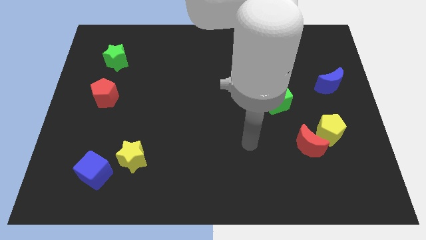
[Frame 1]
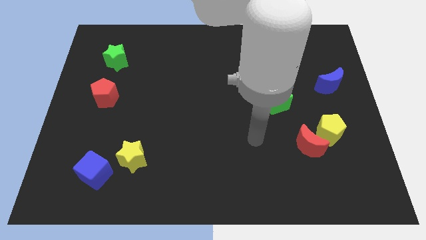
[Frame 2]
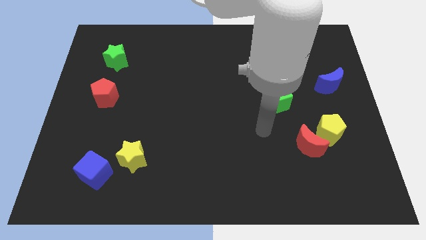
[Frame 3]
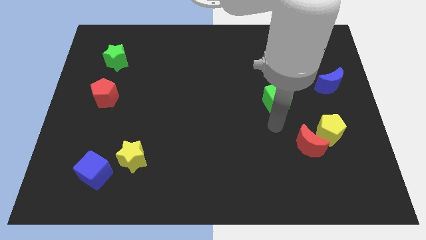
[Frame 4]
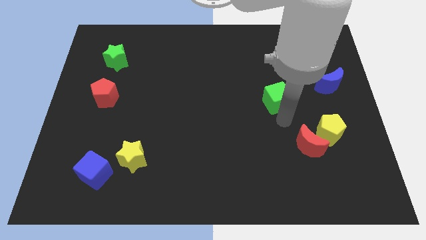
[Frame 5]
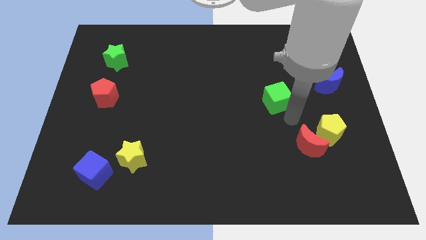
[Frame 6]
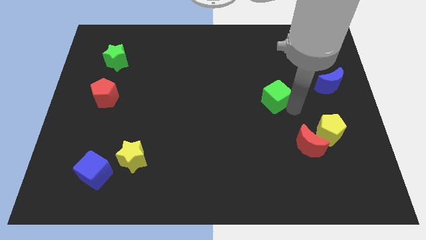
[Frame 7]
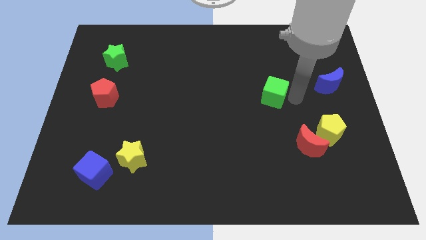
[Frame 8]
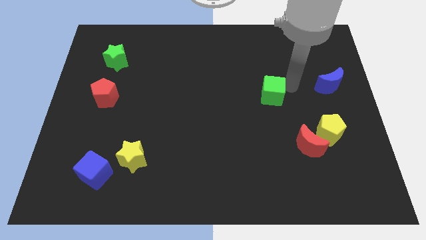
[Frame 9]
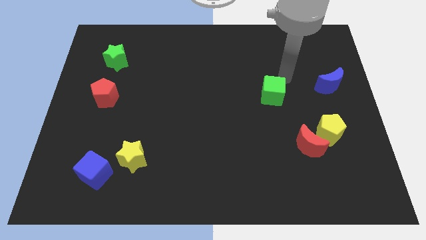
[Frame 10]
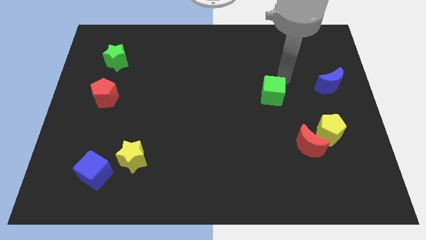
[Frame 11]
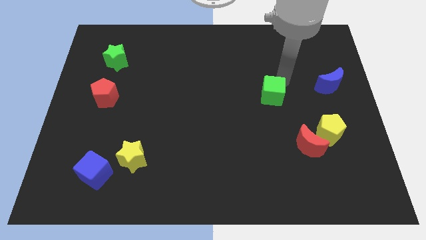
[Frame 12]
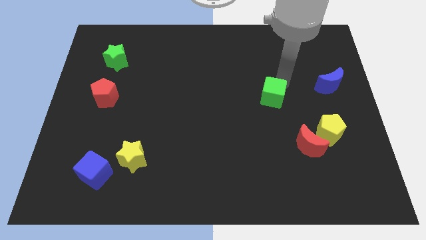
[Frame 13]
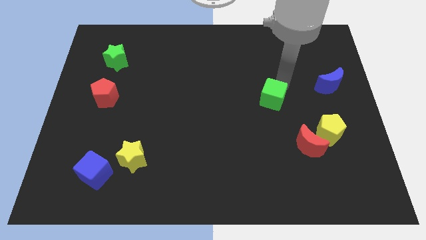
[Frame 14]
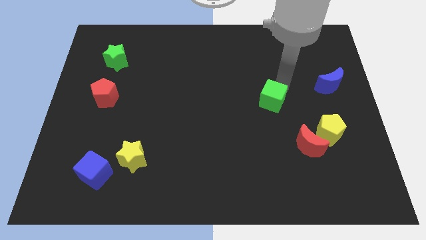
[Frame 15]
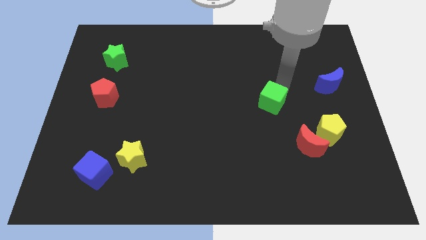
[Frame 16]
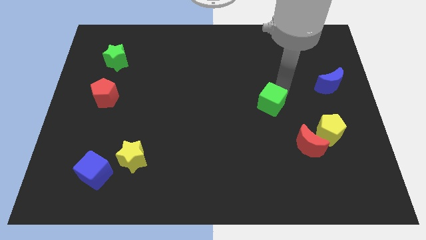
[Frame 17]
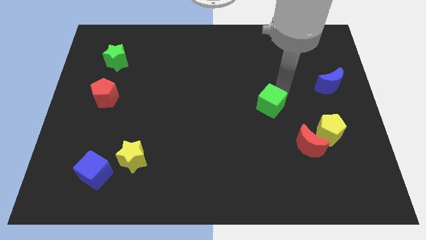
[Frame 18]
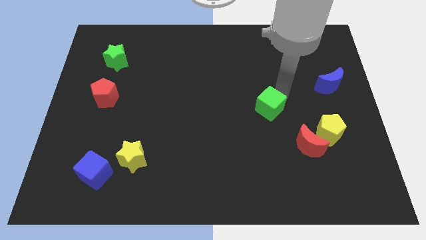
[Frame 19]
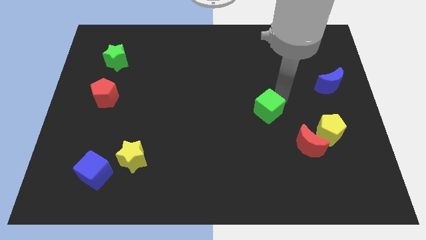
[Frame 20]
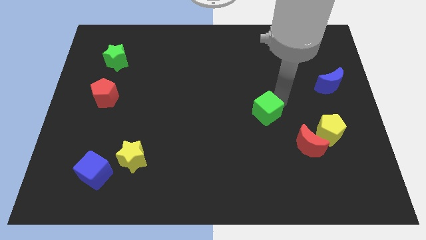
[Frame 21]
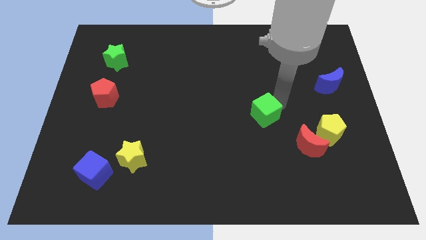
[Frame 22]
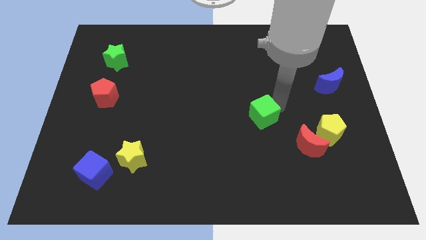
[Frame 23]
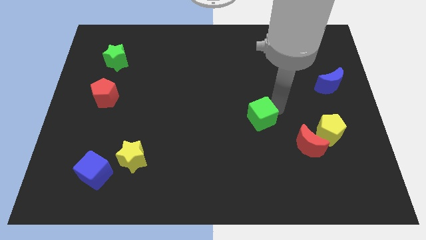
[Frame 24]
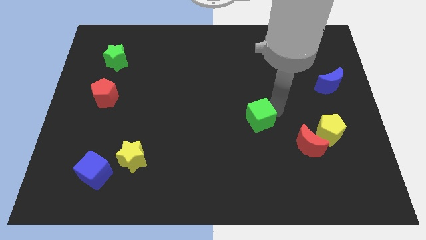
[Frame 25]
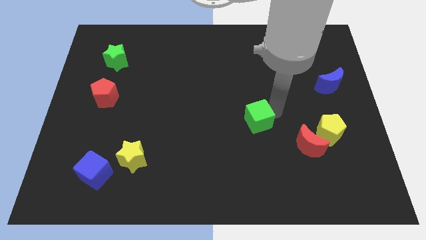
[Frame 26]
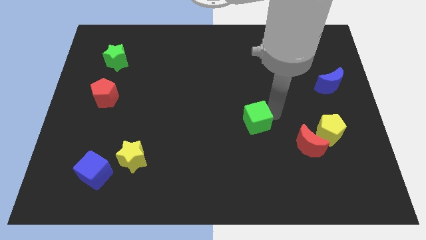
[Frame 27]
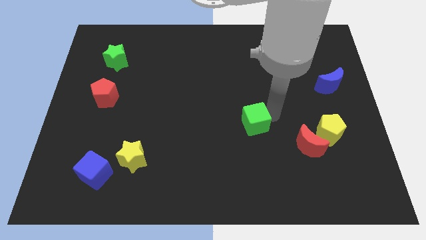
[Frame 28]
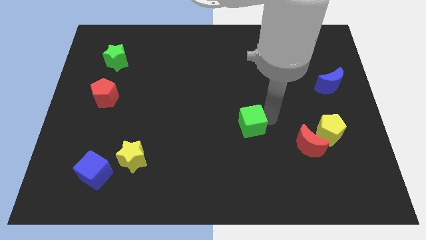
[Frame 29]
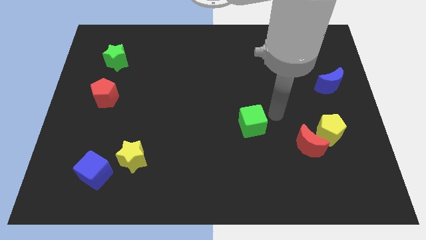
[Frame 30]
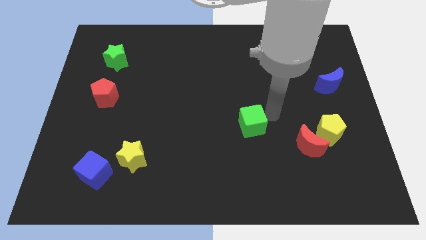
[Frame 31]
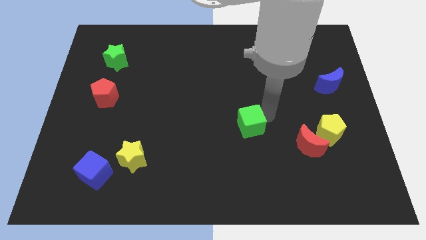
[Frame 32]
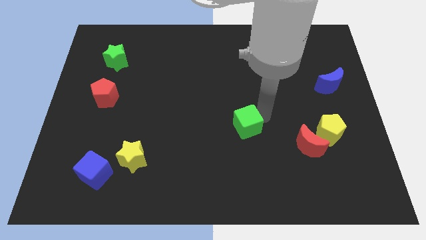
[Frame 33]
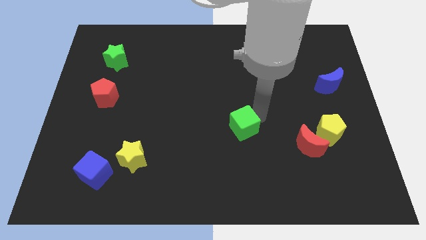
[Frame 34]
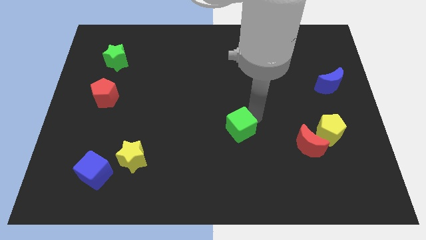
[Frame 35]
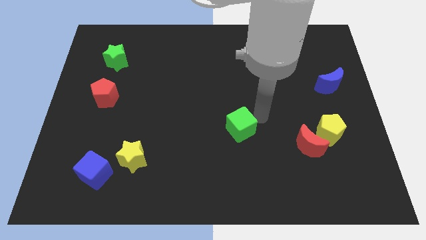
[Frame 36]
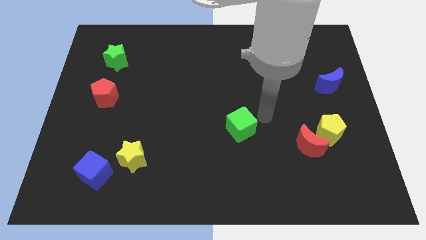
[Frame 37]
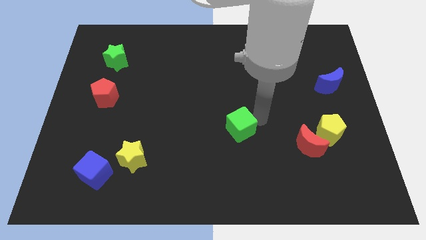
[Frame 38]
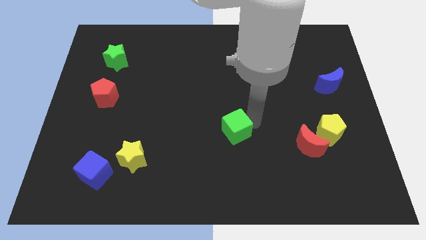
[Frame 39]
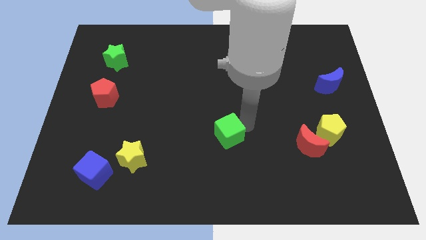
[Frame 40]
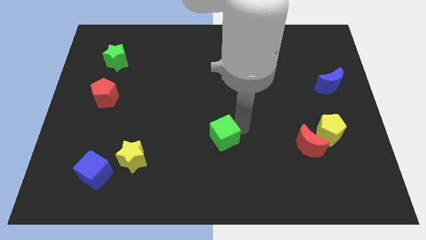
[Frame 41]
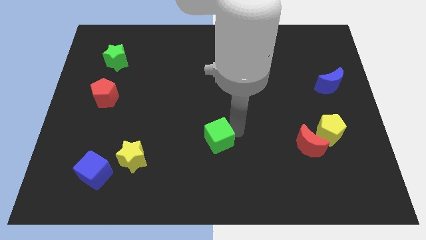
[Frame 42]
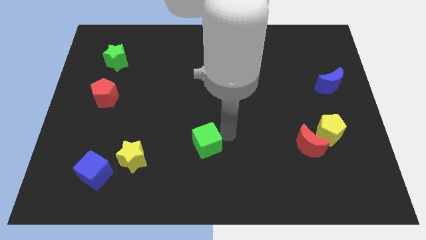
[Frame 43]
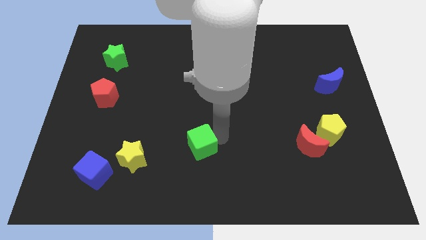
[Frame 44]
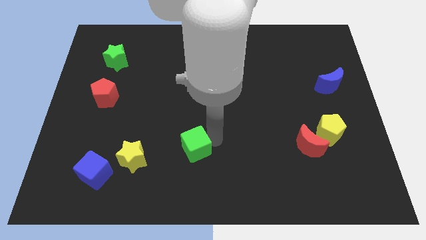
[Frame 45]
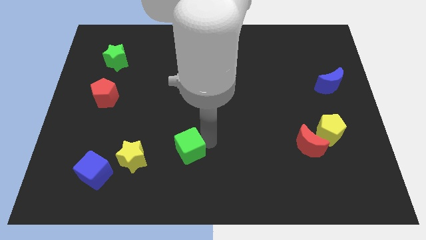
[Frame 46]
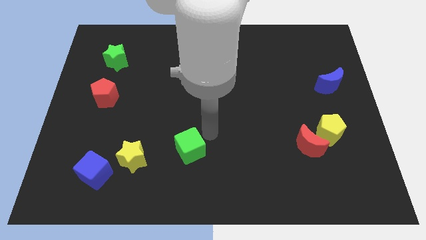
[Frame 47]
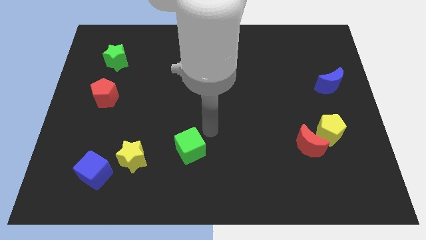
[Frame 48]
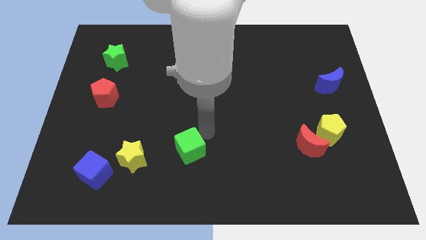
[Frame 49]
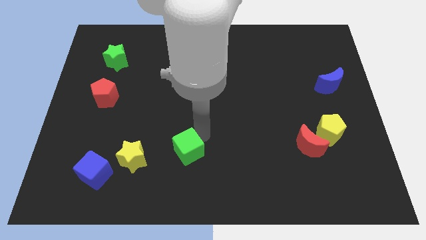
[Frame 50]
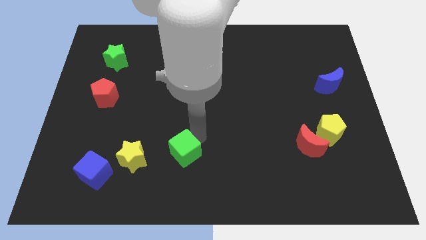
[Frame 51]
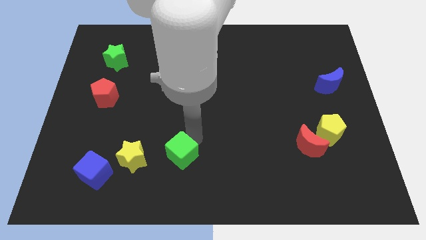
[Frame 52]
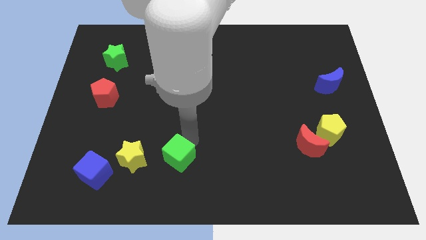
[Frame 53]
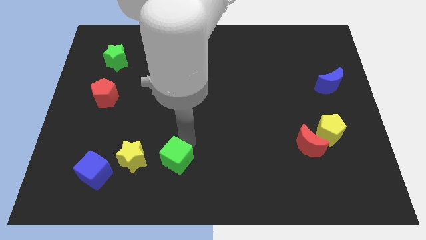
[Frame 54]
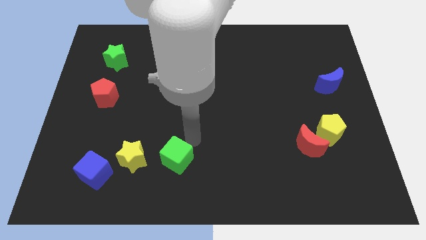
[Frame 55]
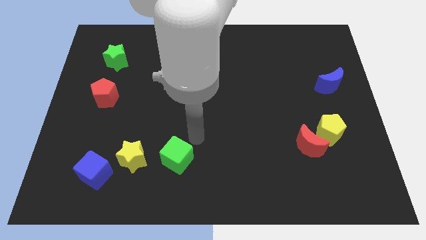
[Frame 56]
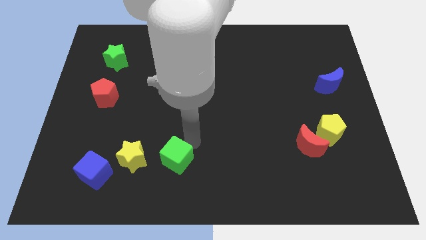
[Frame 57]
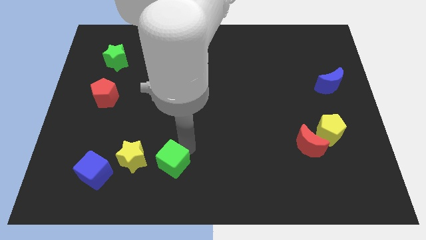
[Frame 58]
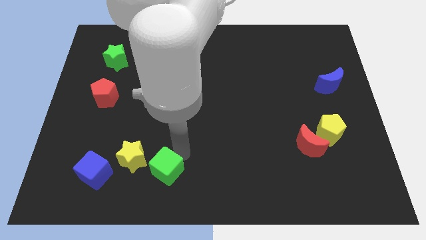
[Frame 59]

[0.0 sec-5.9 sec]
push the green cube to the bottom right of the yellow star

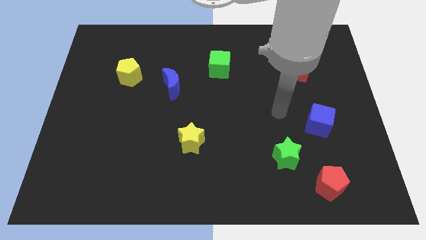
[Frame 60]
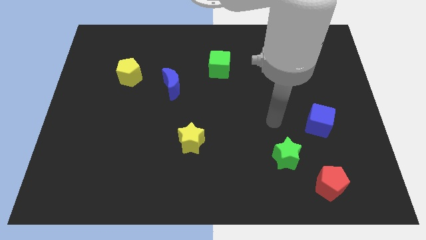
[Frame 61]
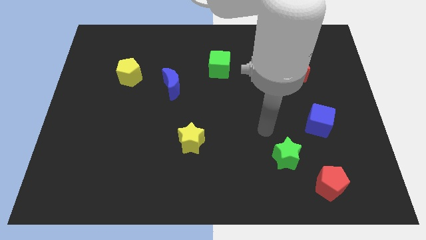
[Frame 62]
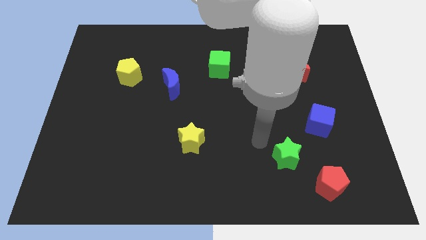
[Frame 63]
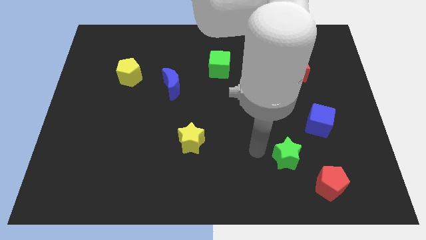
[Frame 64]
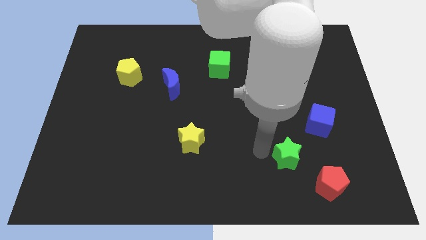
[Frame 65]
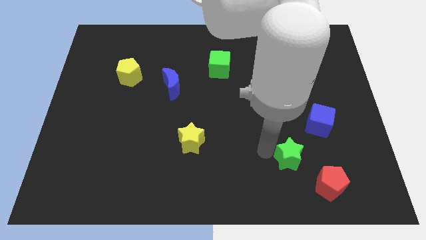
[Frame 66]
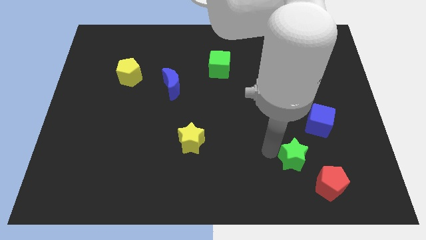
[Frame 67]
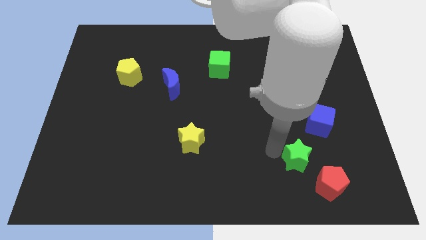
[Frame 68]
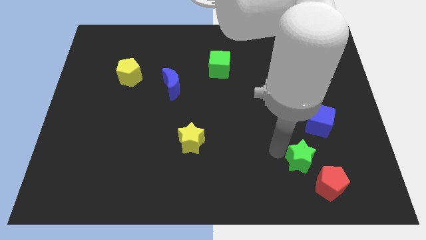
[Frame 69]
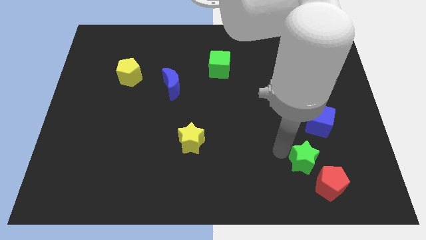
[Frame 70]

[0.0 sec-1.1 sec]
slide the green star below the blue cube
